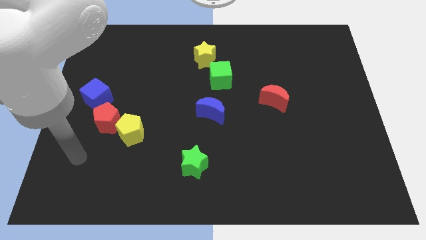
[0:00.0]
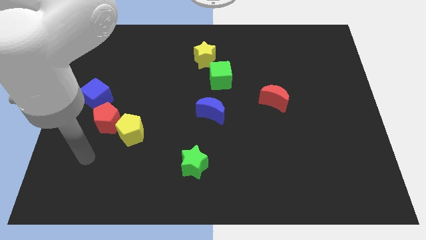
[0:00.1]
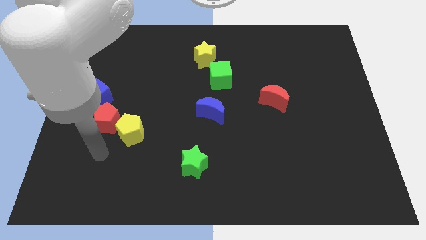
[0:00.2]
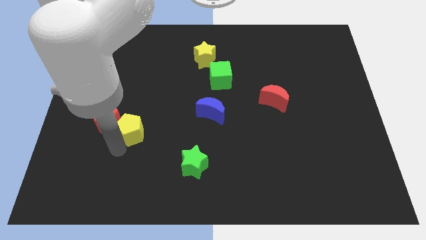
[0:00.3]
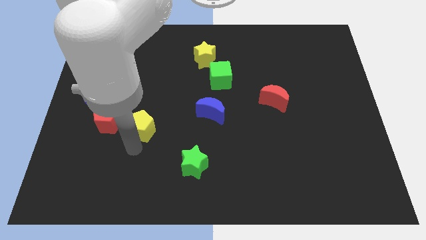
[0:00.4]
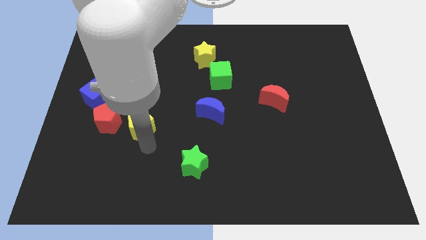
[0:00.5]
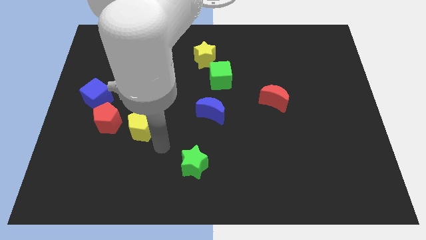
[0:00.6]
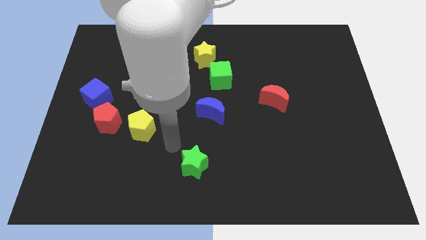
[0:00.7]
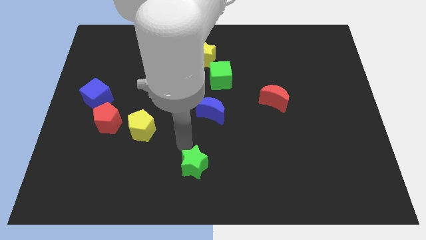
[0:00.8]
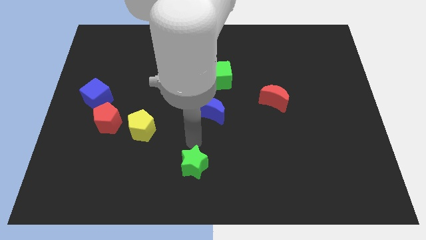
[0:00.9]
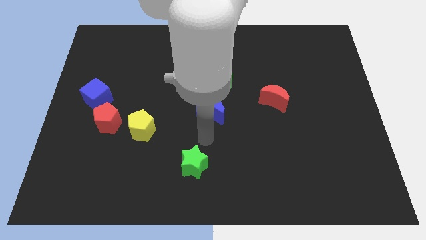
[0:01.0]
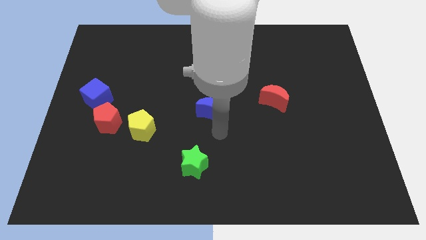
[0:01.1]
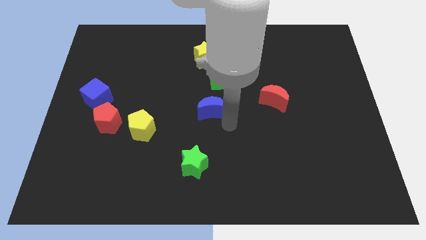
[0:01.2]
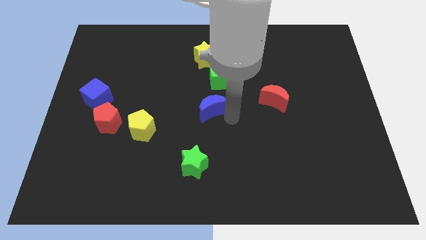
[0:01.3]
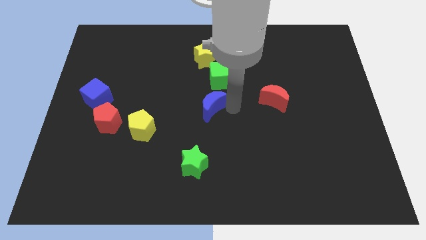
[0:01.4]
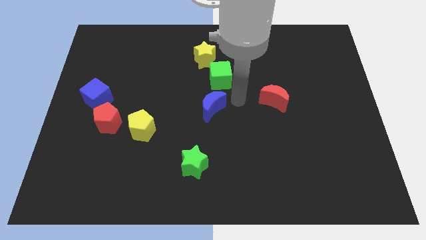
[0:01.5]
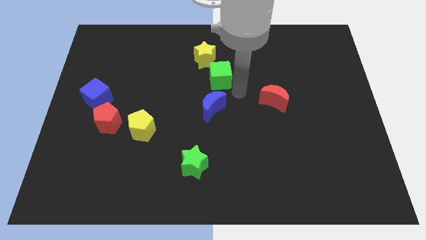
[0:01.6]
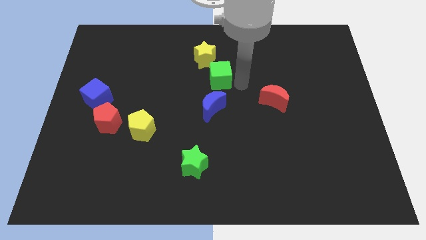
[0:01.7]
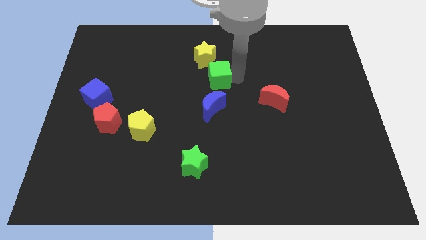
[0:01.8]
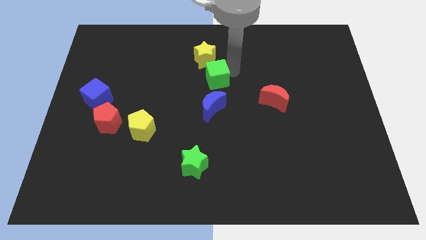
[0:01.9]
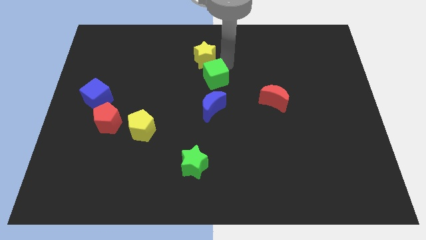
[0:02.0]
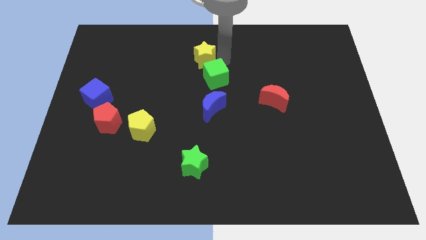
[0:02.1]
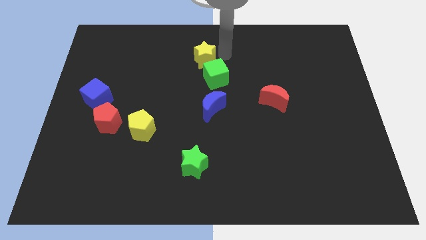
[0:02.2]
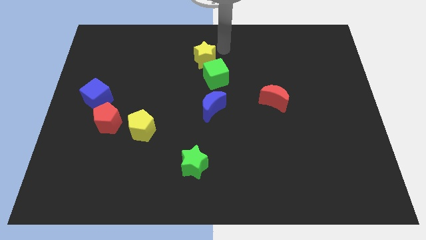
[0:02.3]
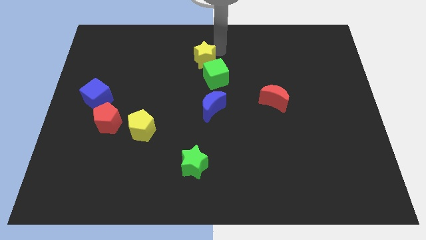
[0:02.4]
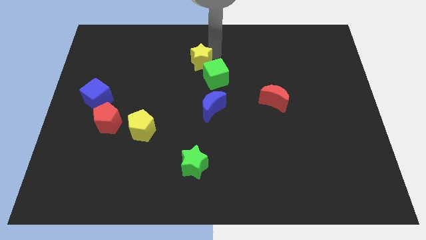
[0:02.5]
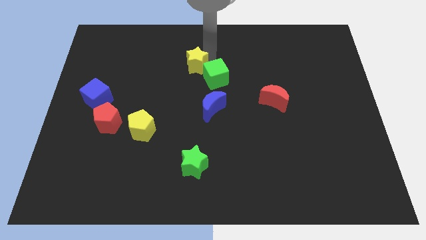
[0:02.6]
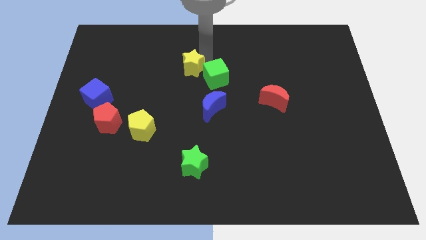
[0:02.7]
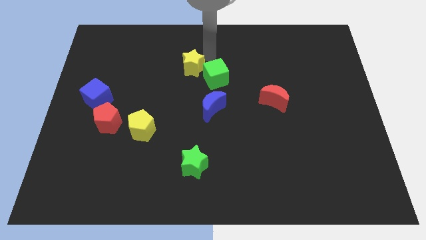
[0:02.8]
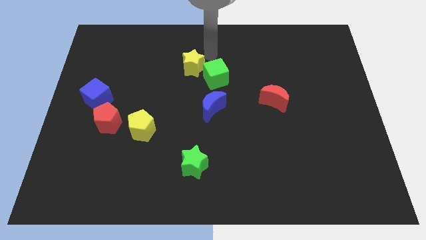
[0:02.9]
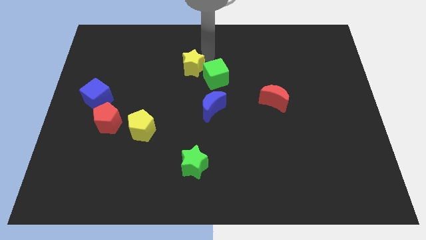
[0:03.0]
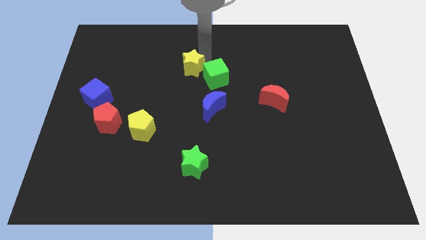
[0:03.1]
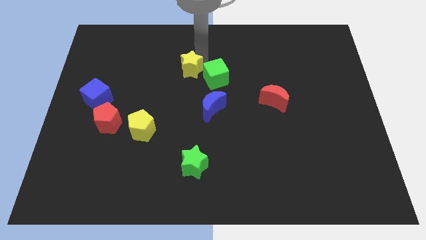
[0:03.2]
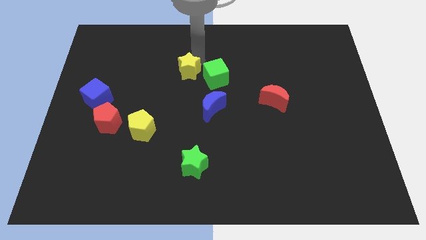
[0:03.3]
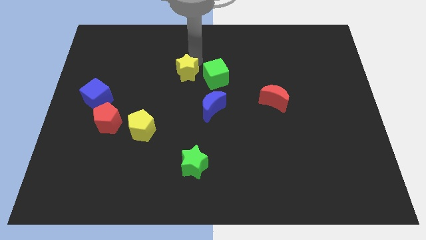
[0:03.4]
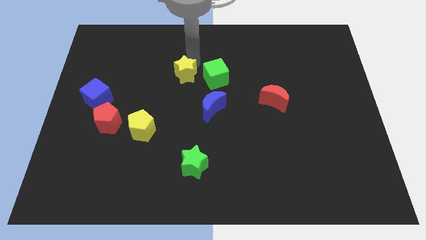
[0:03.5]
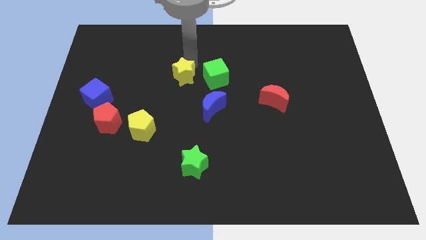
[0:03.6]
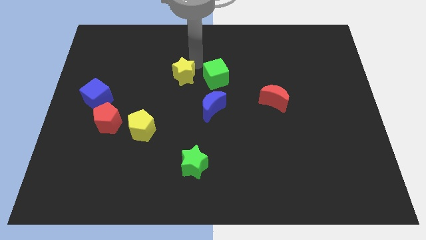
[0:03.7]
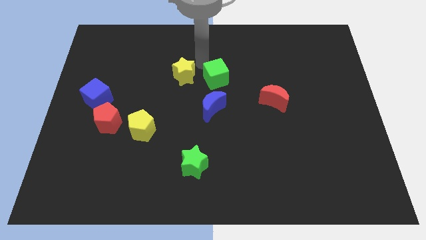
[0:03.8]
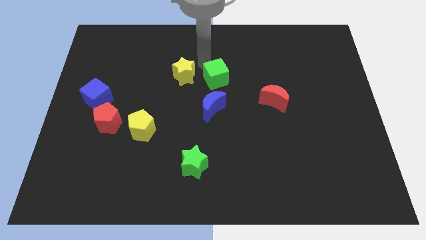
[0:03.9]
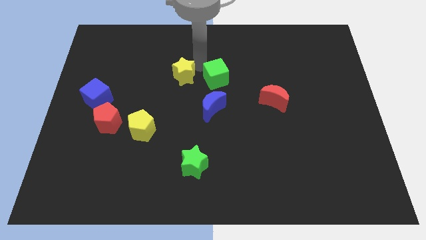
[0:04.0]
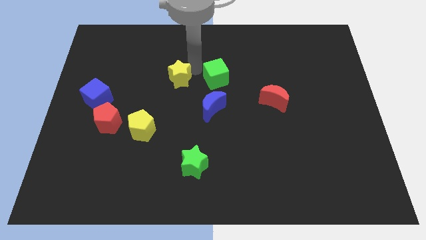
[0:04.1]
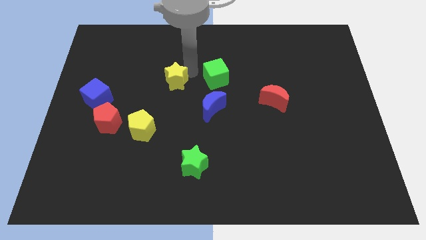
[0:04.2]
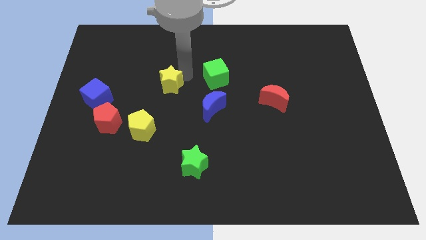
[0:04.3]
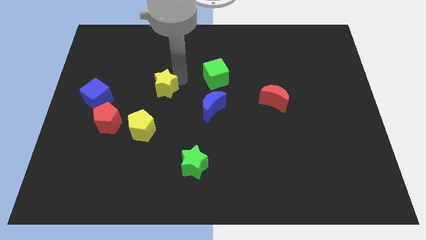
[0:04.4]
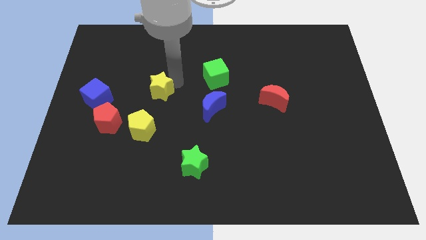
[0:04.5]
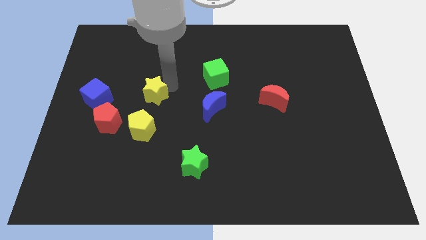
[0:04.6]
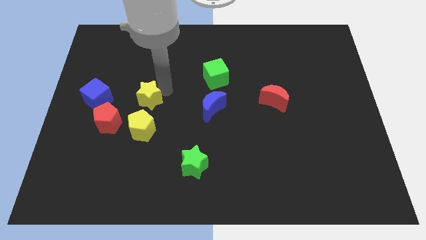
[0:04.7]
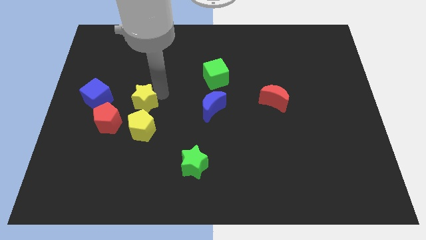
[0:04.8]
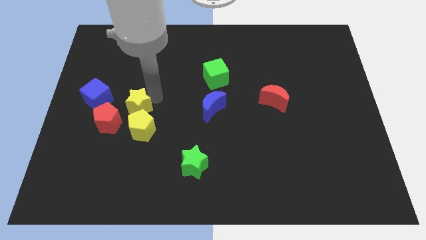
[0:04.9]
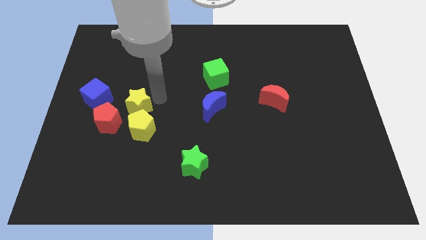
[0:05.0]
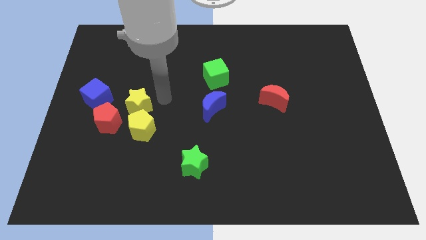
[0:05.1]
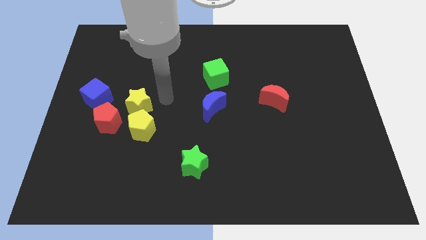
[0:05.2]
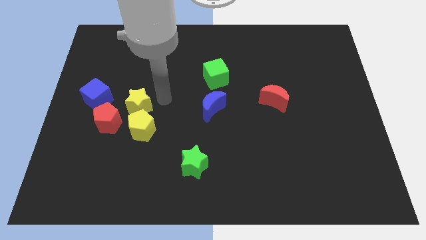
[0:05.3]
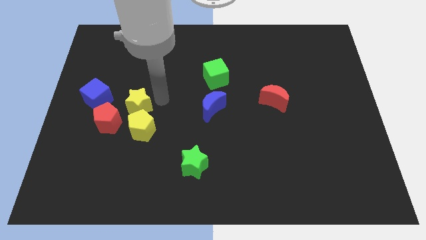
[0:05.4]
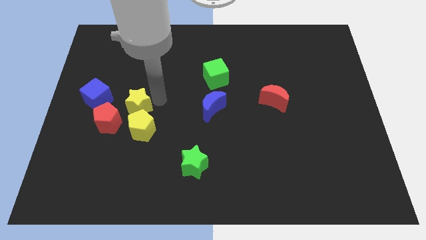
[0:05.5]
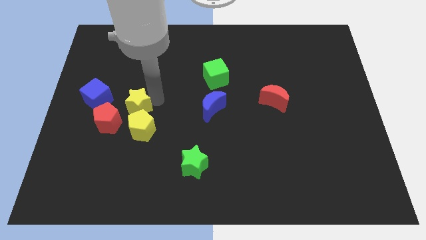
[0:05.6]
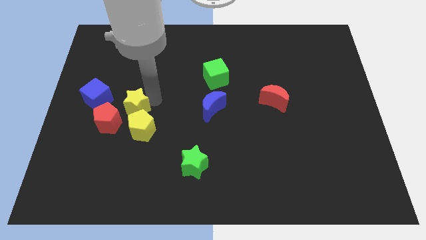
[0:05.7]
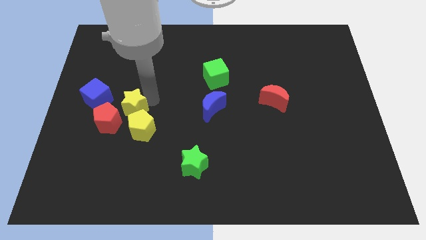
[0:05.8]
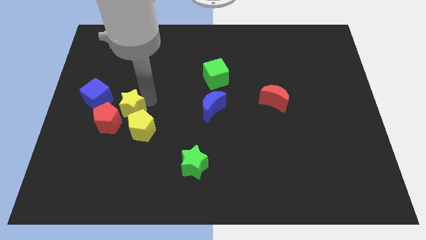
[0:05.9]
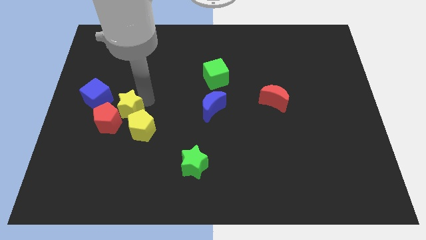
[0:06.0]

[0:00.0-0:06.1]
push the yellow star towards the red pentagon

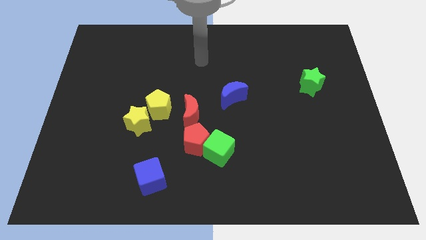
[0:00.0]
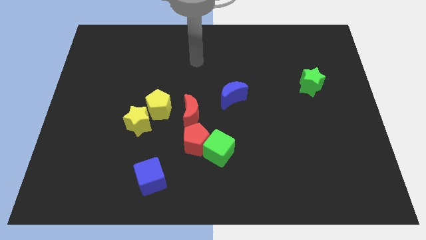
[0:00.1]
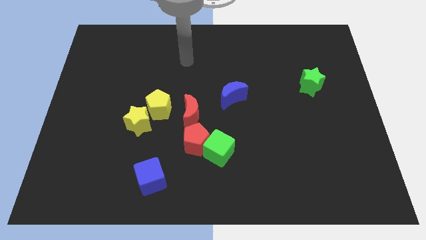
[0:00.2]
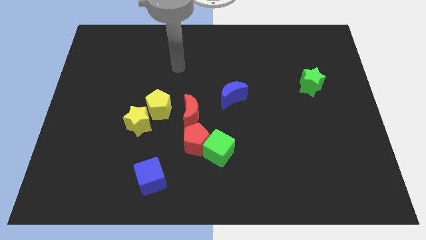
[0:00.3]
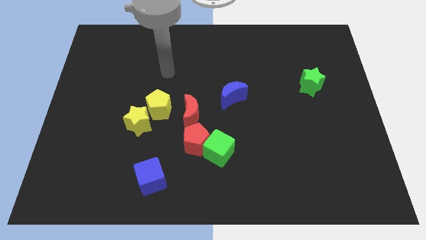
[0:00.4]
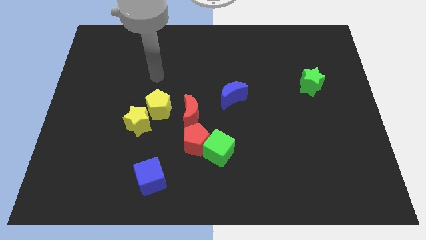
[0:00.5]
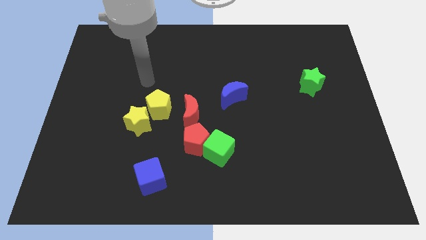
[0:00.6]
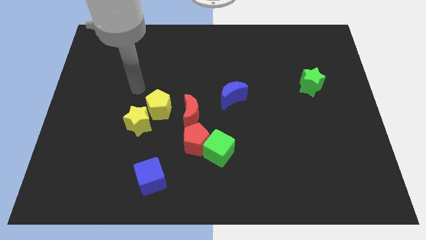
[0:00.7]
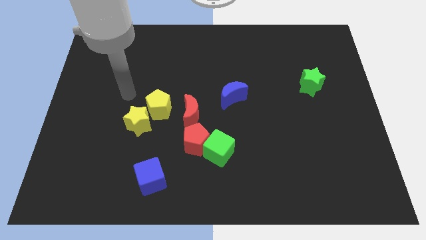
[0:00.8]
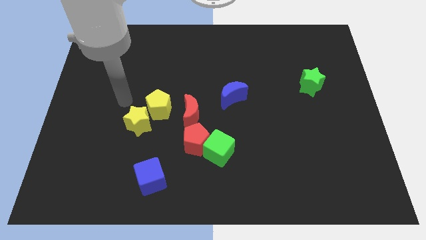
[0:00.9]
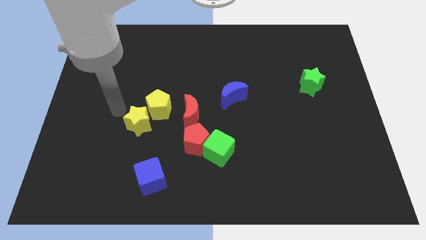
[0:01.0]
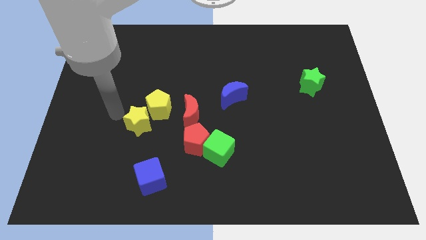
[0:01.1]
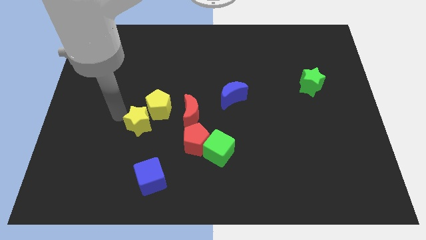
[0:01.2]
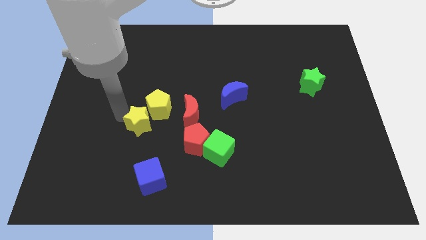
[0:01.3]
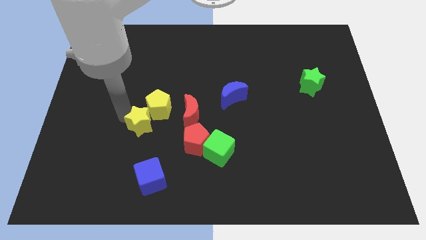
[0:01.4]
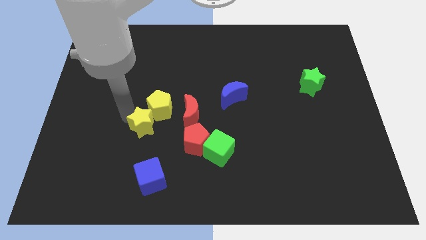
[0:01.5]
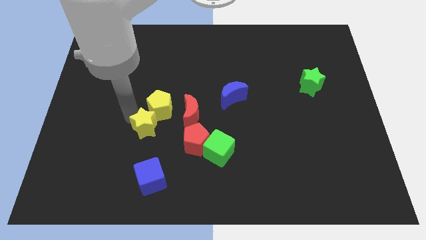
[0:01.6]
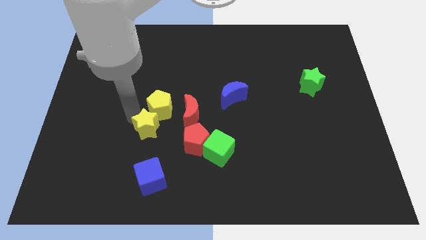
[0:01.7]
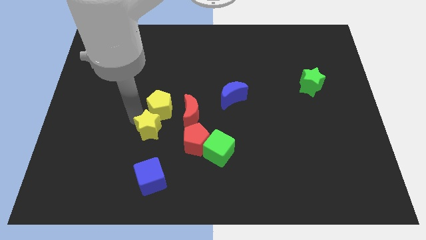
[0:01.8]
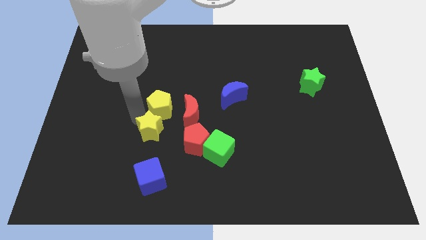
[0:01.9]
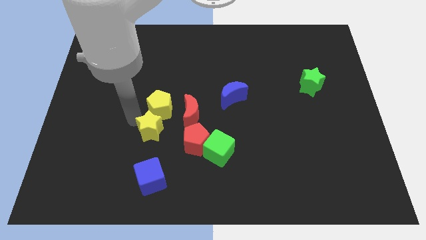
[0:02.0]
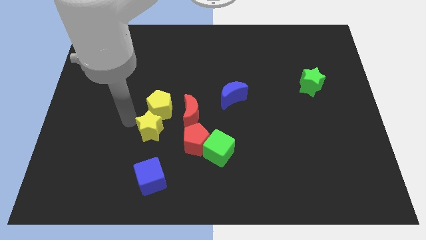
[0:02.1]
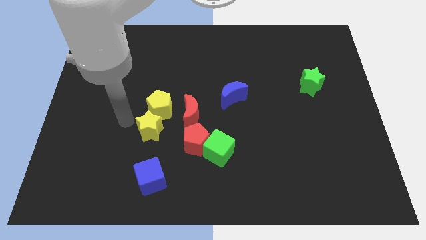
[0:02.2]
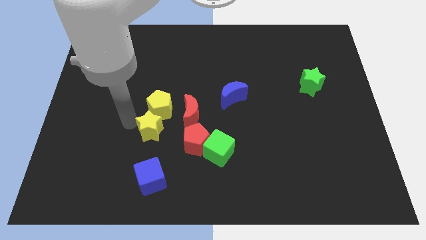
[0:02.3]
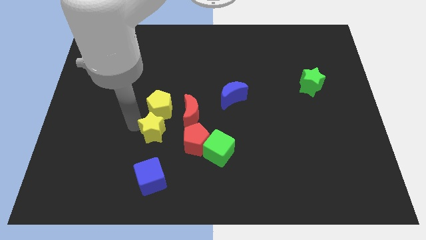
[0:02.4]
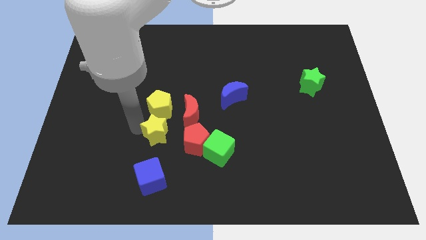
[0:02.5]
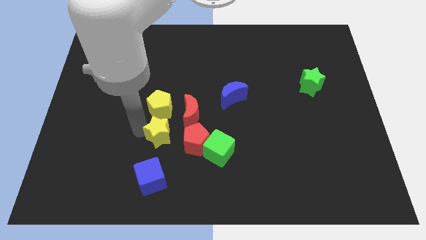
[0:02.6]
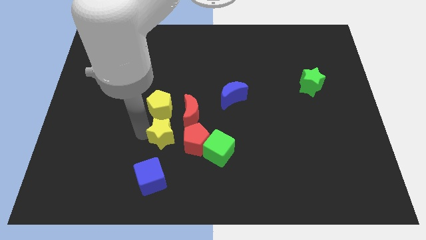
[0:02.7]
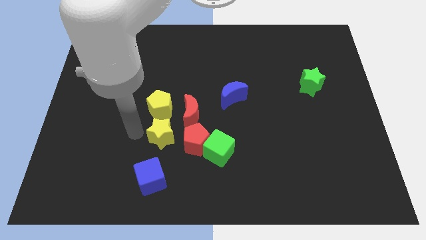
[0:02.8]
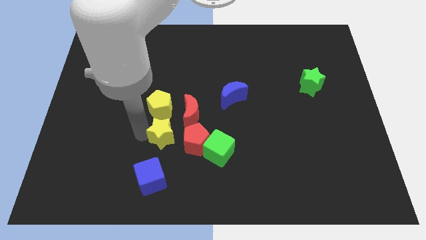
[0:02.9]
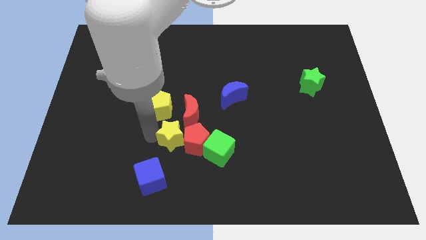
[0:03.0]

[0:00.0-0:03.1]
slide the yellow star next to the red pentagon
